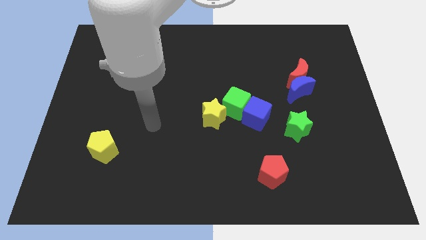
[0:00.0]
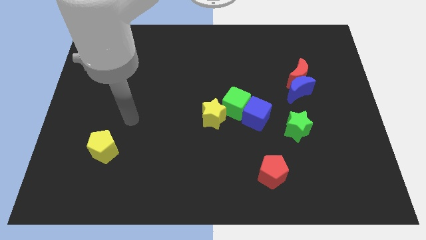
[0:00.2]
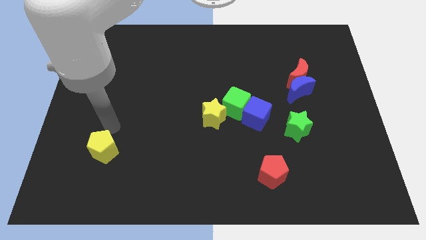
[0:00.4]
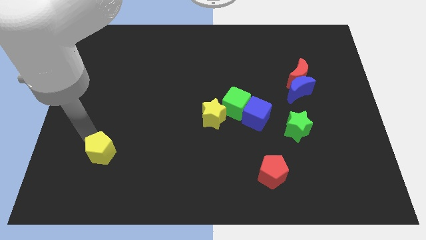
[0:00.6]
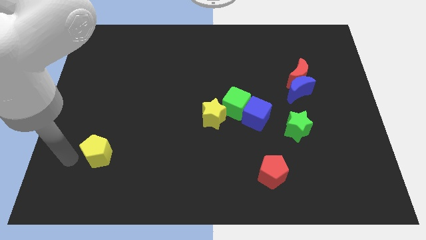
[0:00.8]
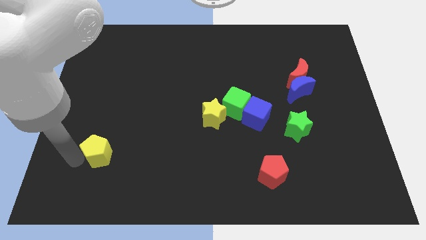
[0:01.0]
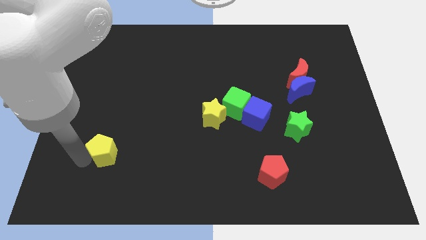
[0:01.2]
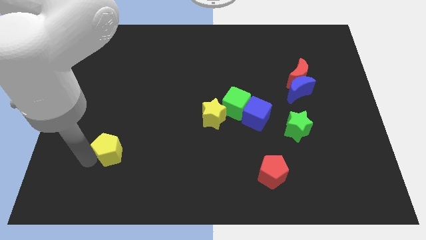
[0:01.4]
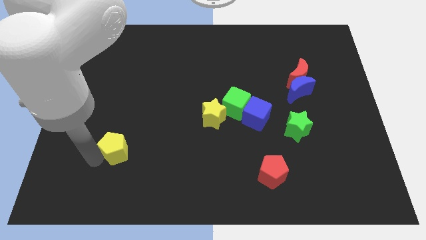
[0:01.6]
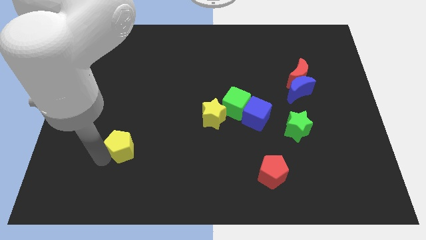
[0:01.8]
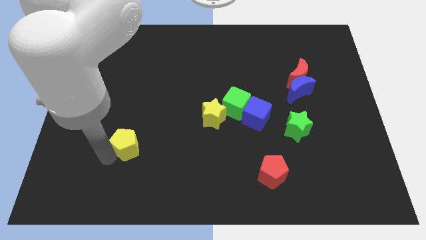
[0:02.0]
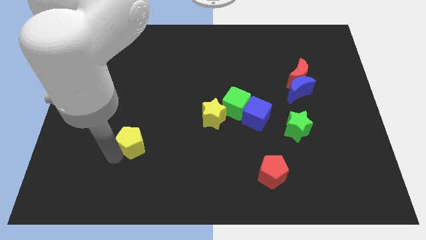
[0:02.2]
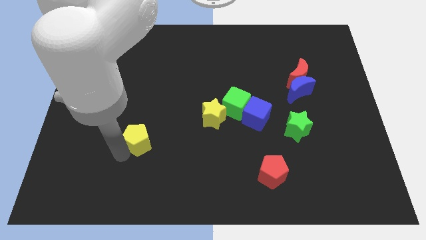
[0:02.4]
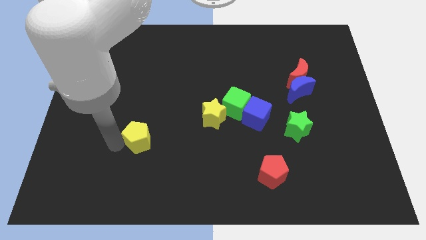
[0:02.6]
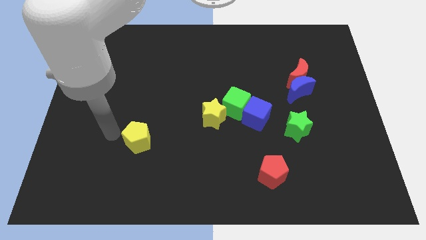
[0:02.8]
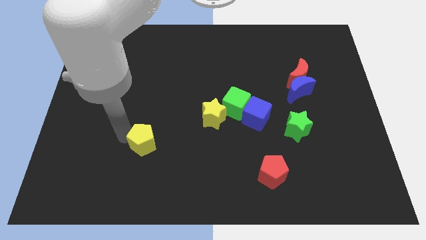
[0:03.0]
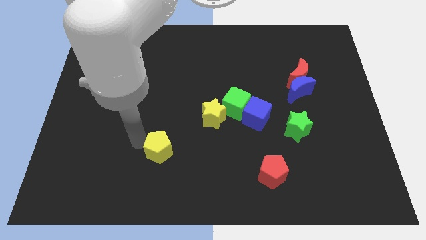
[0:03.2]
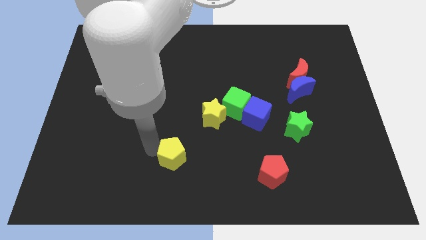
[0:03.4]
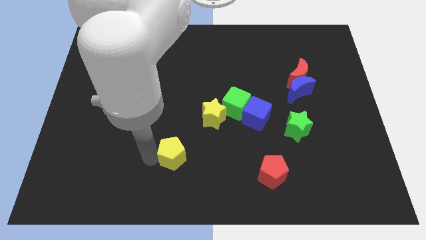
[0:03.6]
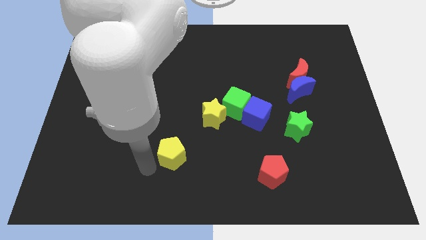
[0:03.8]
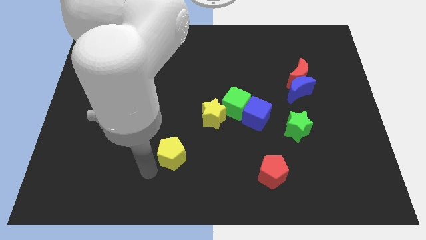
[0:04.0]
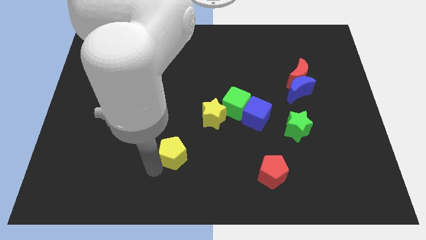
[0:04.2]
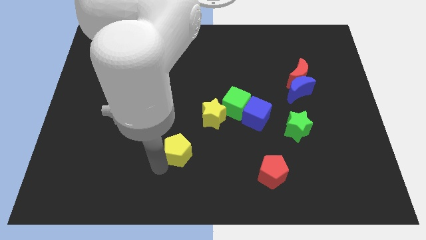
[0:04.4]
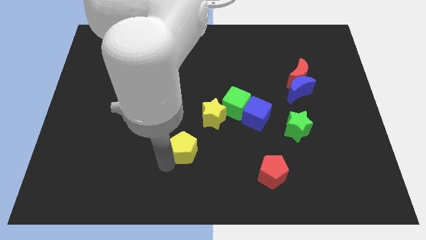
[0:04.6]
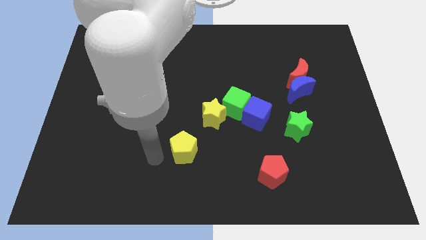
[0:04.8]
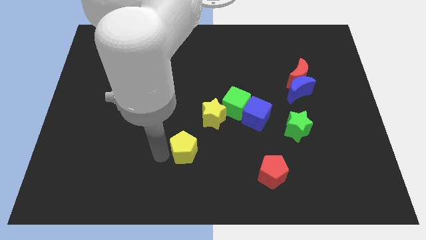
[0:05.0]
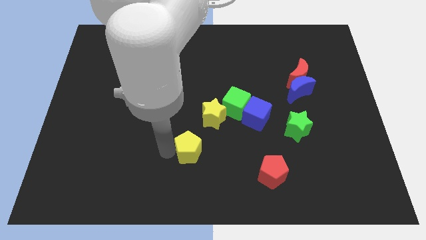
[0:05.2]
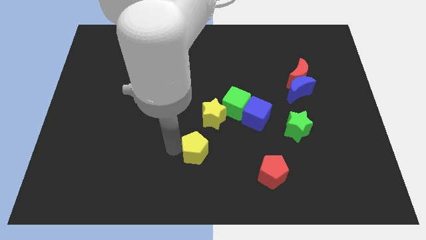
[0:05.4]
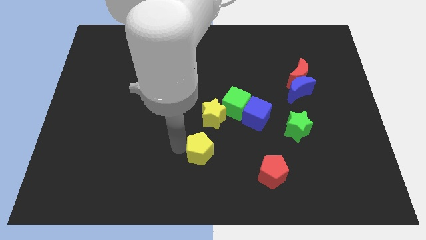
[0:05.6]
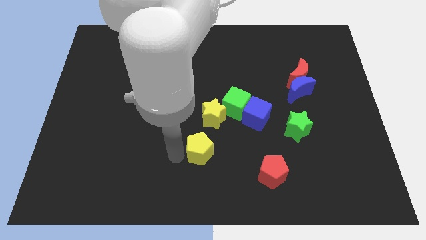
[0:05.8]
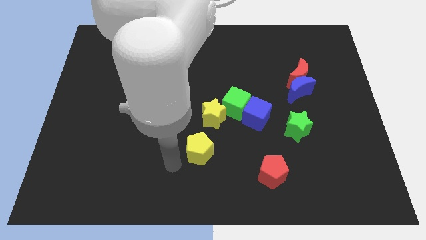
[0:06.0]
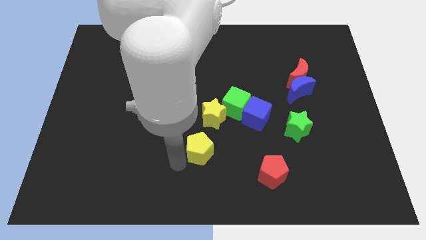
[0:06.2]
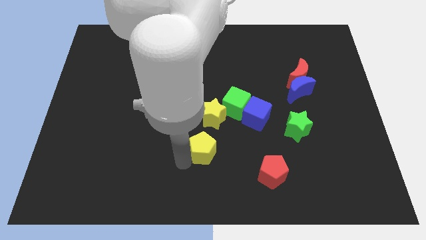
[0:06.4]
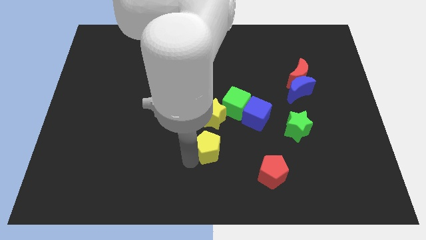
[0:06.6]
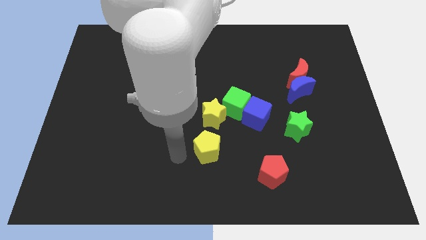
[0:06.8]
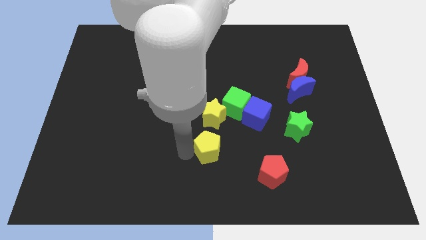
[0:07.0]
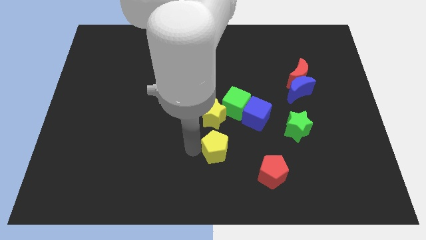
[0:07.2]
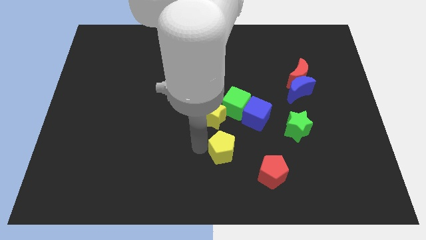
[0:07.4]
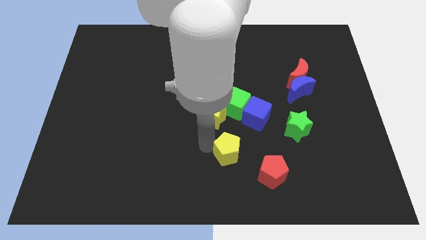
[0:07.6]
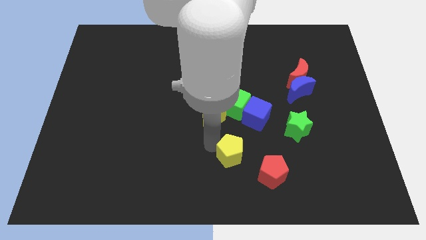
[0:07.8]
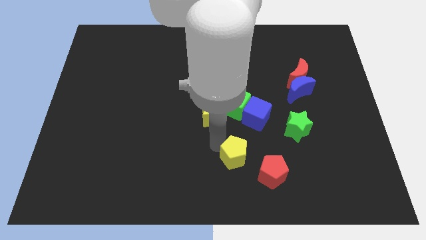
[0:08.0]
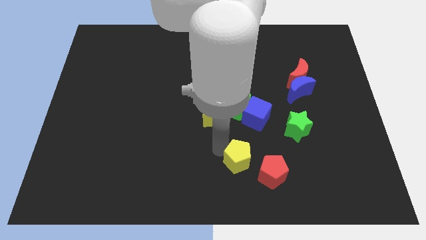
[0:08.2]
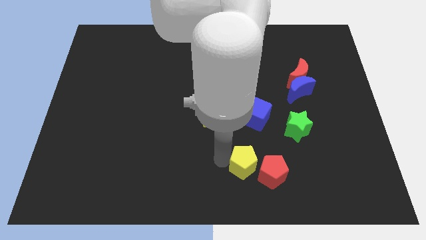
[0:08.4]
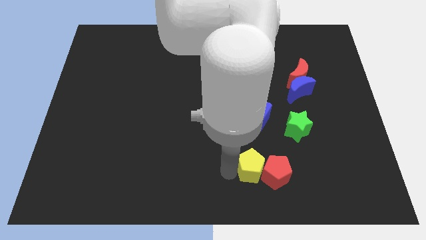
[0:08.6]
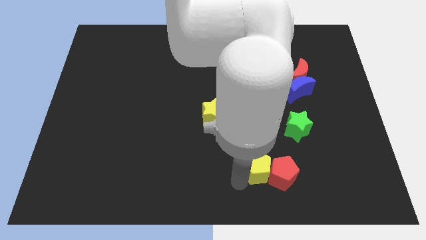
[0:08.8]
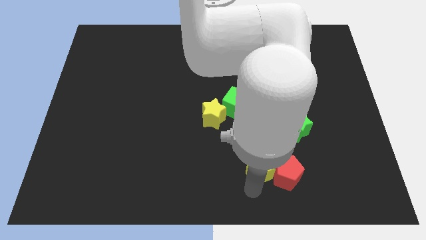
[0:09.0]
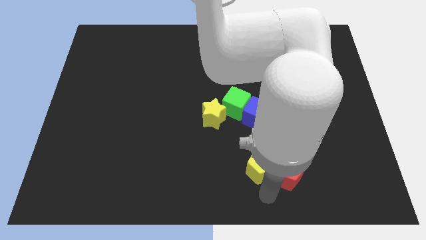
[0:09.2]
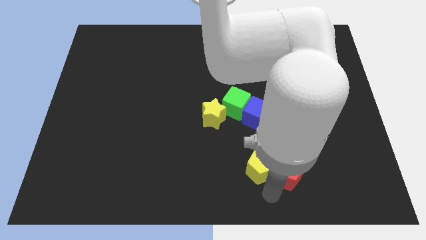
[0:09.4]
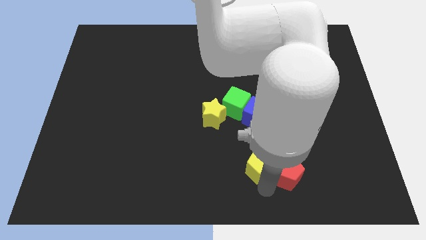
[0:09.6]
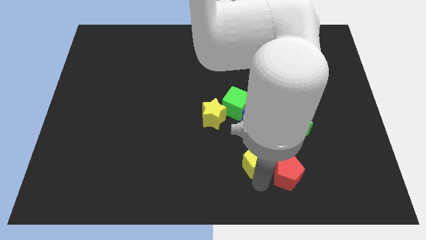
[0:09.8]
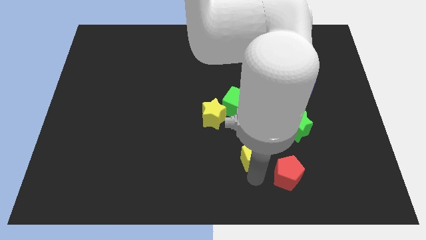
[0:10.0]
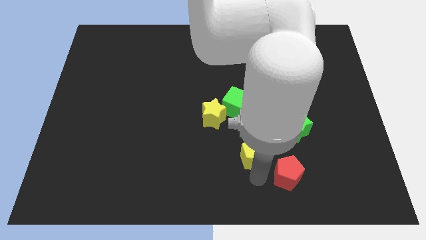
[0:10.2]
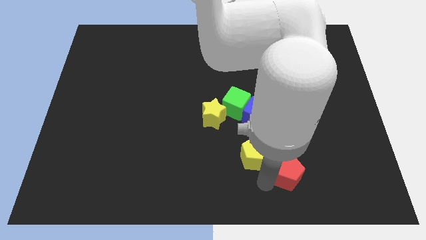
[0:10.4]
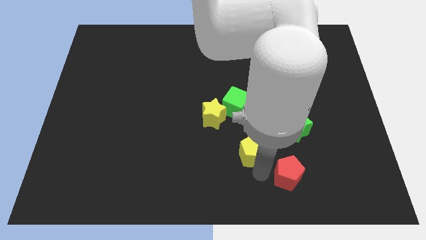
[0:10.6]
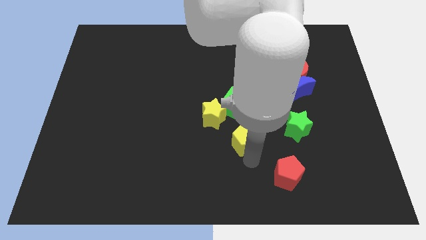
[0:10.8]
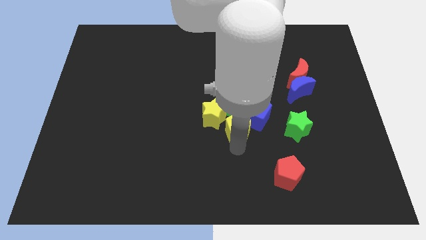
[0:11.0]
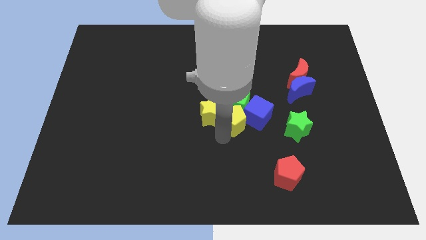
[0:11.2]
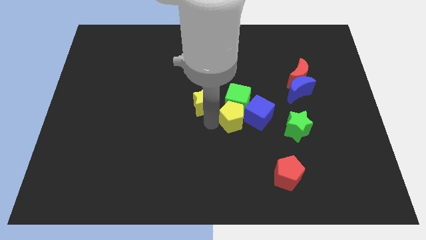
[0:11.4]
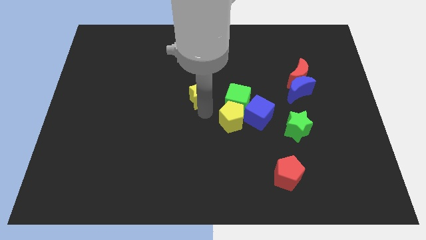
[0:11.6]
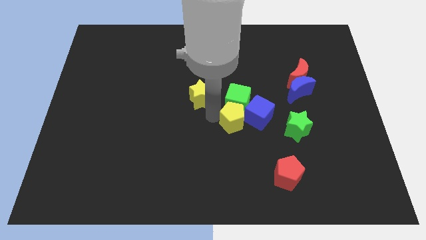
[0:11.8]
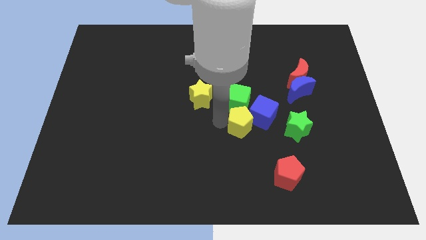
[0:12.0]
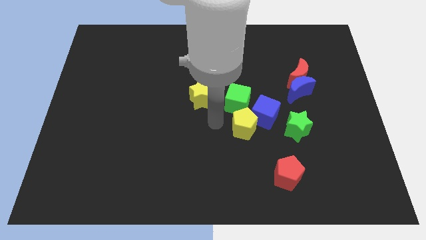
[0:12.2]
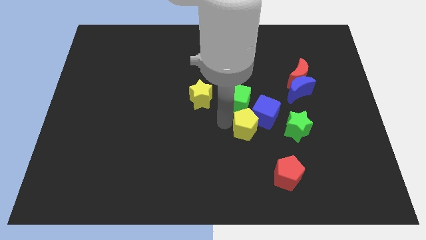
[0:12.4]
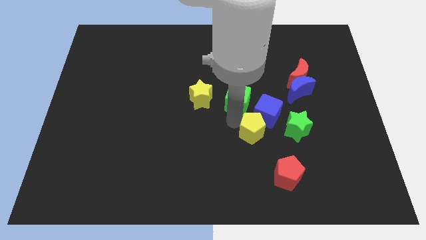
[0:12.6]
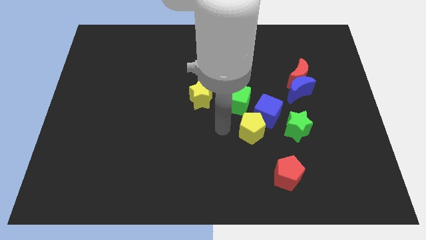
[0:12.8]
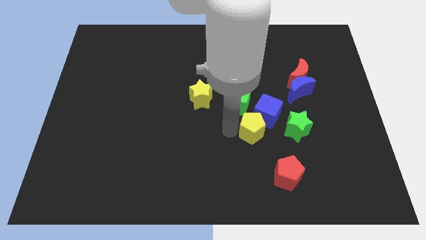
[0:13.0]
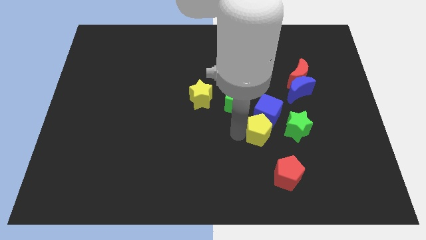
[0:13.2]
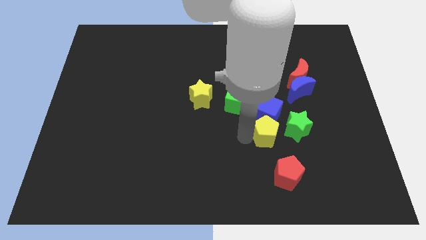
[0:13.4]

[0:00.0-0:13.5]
push the yellow pentagon diagonally down and to the right of the blue cube
